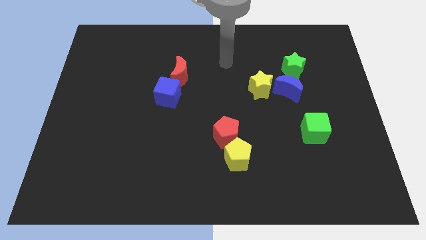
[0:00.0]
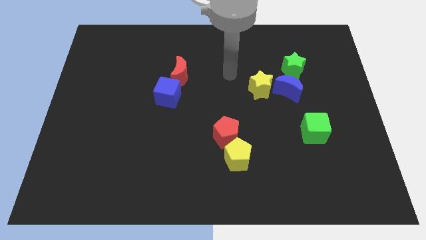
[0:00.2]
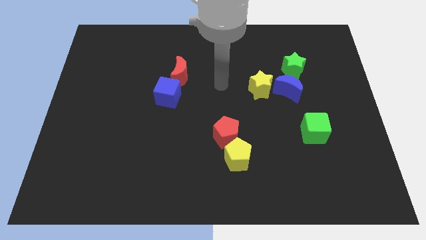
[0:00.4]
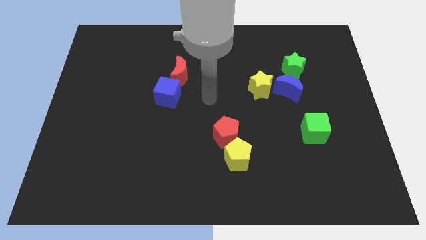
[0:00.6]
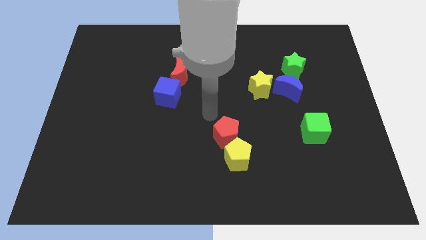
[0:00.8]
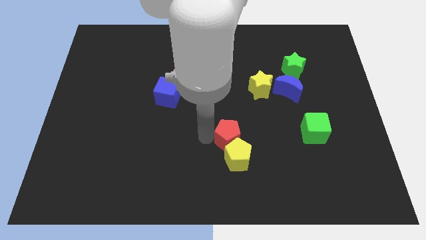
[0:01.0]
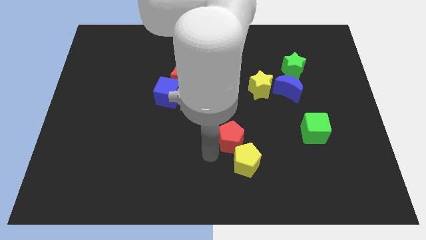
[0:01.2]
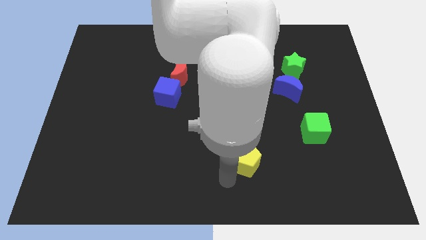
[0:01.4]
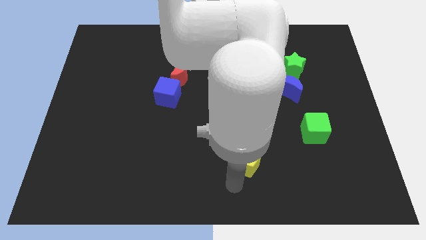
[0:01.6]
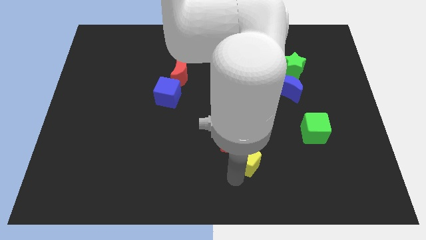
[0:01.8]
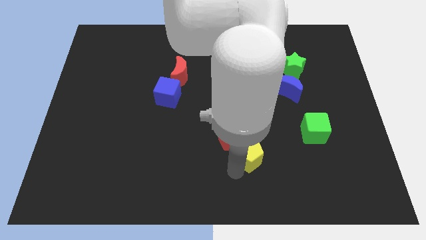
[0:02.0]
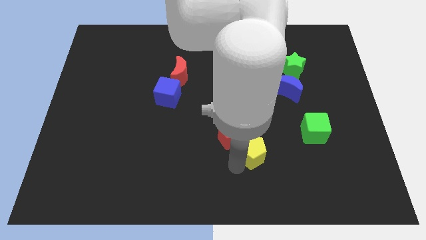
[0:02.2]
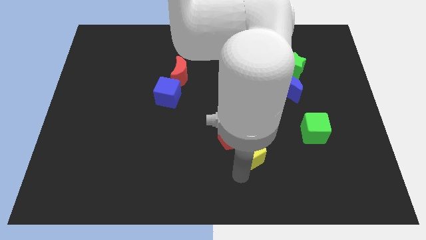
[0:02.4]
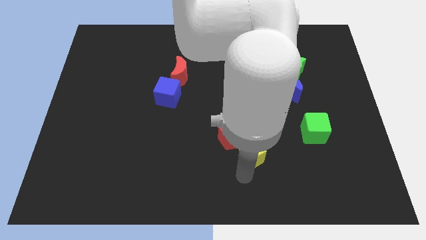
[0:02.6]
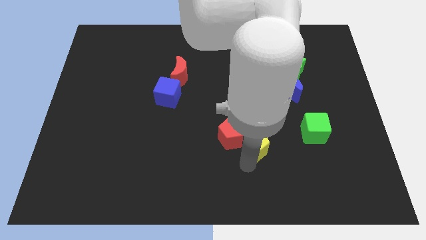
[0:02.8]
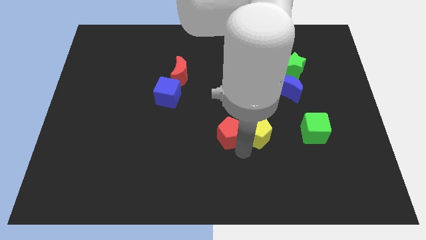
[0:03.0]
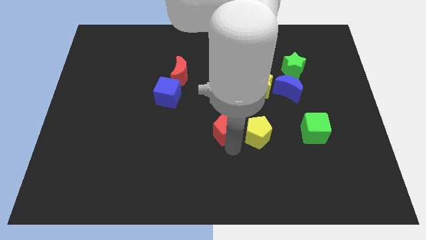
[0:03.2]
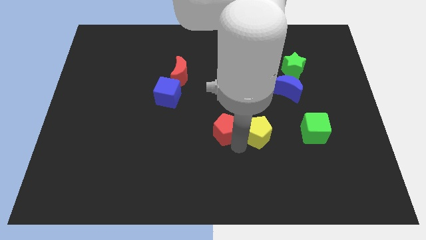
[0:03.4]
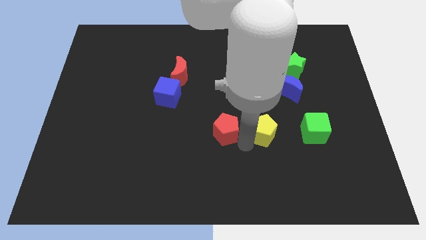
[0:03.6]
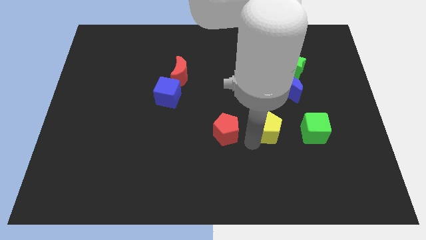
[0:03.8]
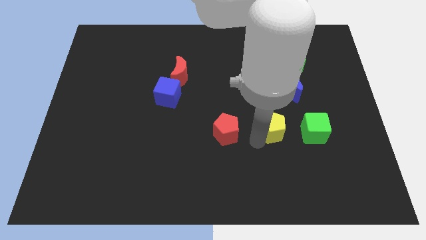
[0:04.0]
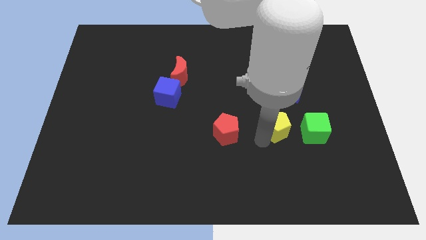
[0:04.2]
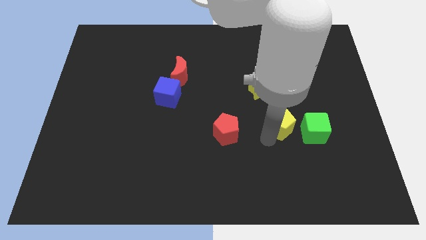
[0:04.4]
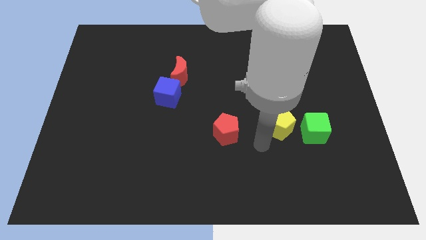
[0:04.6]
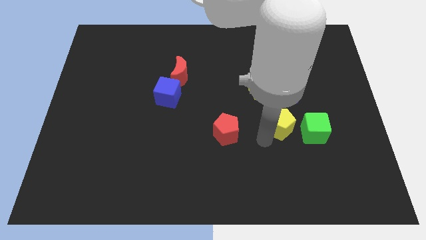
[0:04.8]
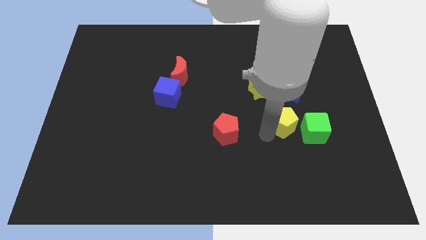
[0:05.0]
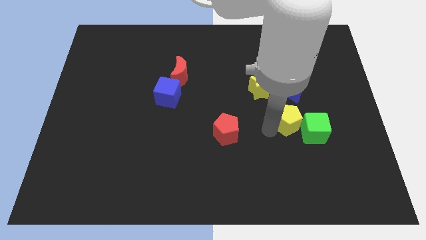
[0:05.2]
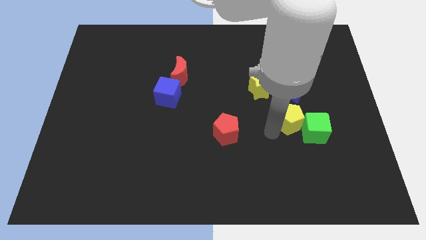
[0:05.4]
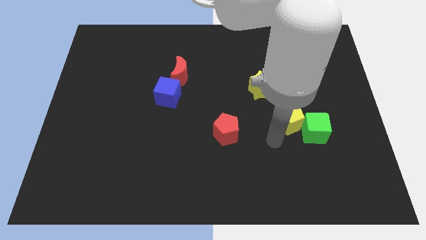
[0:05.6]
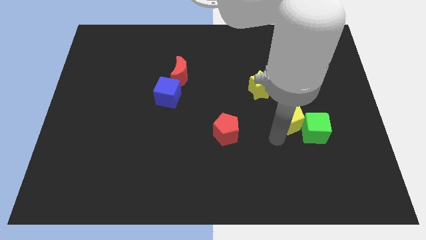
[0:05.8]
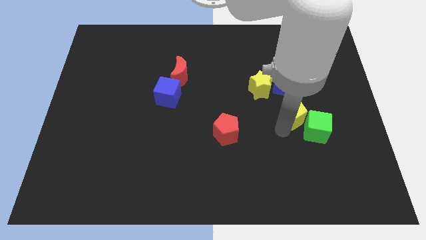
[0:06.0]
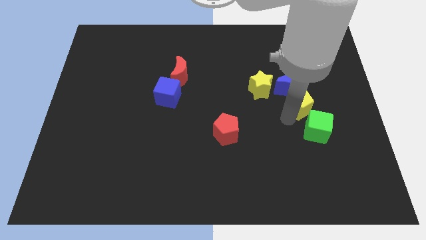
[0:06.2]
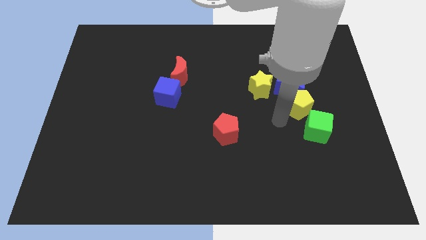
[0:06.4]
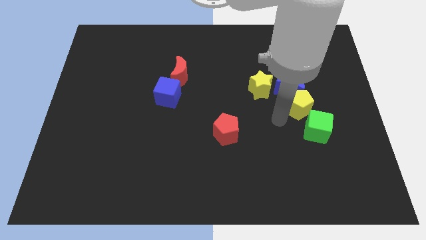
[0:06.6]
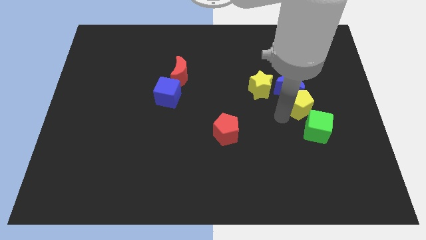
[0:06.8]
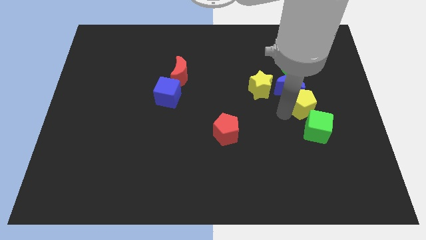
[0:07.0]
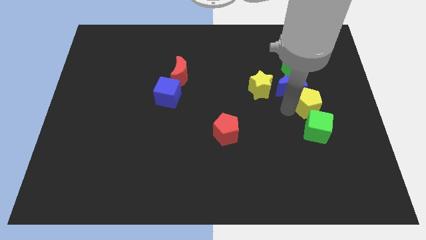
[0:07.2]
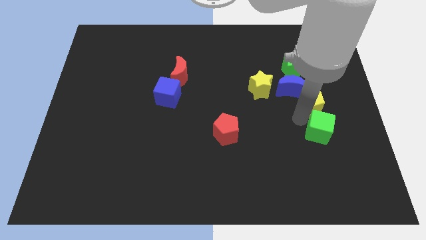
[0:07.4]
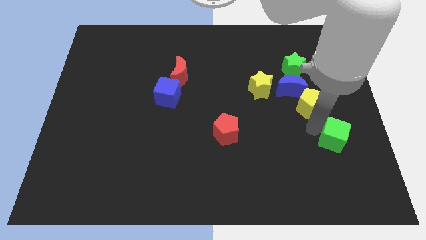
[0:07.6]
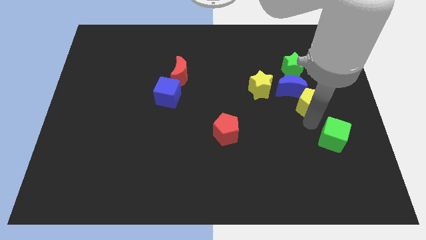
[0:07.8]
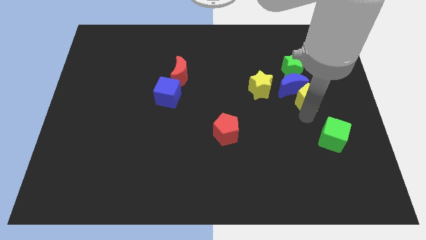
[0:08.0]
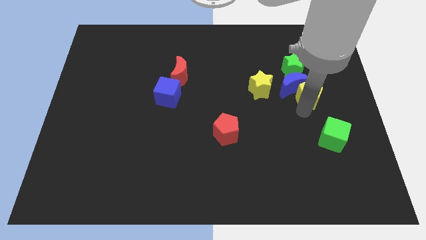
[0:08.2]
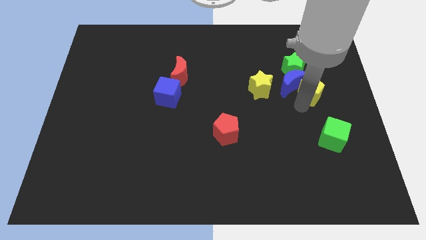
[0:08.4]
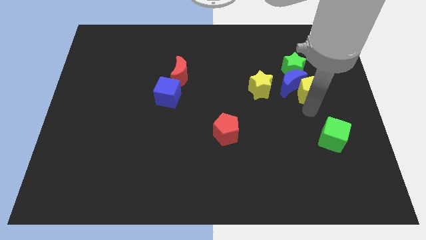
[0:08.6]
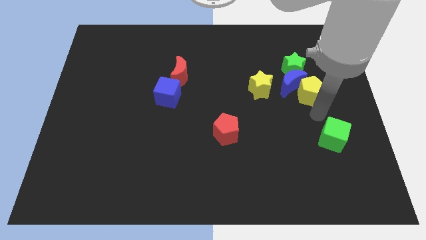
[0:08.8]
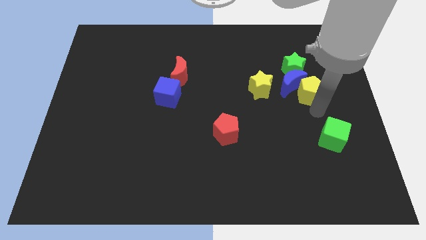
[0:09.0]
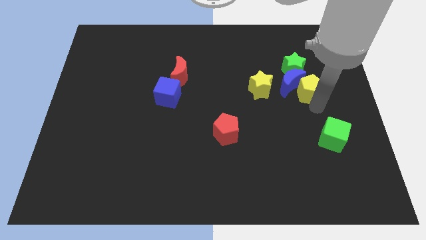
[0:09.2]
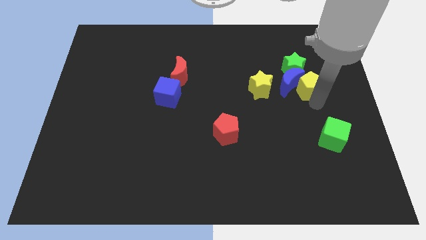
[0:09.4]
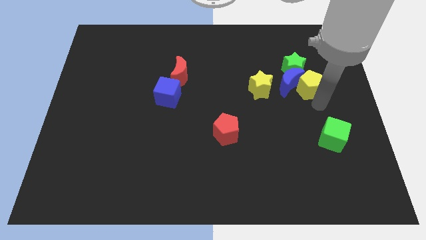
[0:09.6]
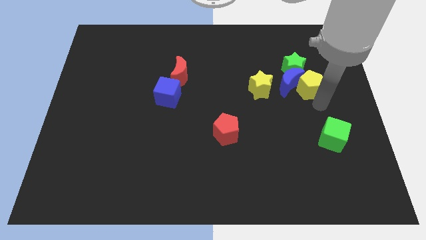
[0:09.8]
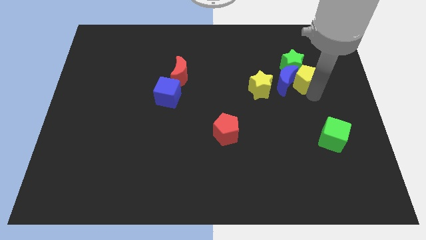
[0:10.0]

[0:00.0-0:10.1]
push the yellow pentagon towards the green star

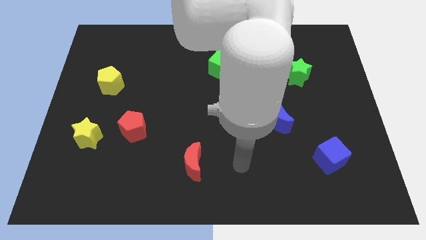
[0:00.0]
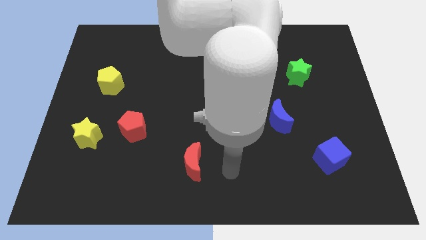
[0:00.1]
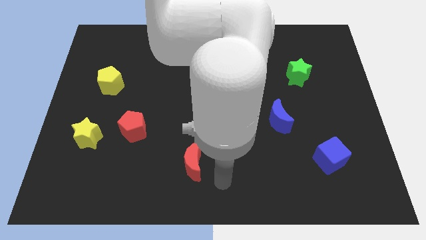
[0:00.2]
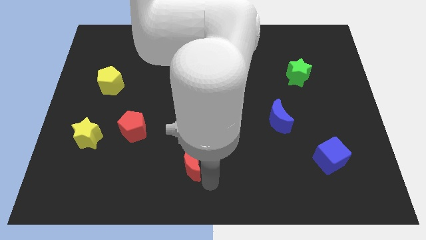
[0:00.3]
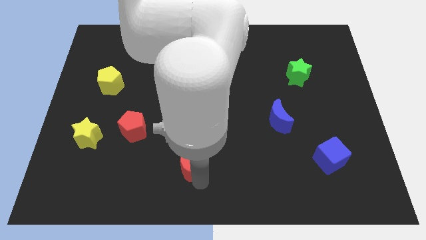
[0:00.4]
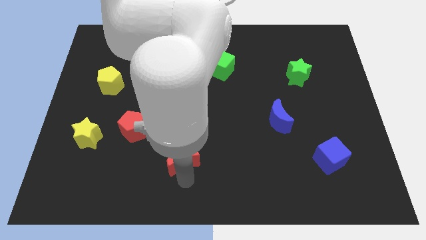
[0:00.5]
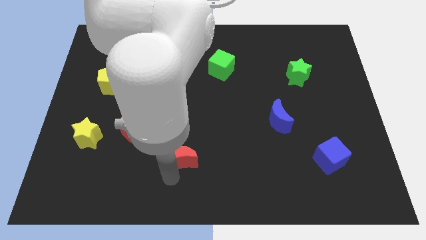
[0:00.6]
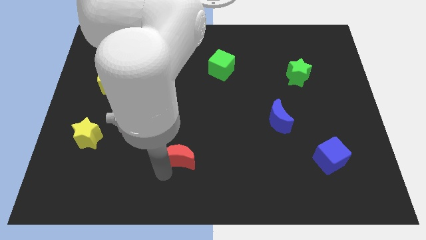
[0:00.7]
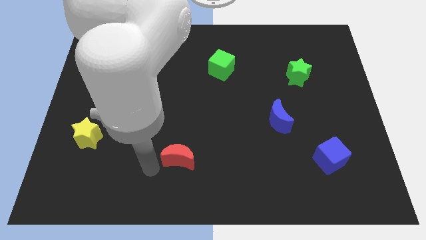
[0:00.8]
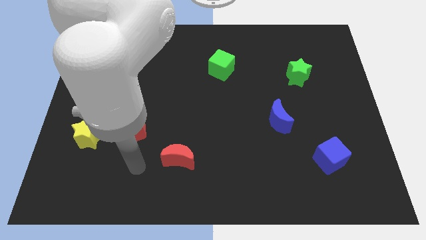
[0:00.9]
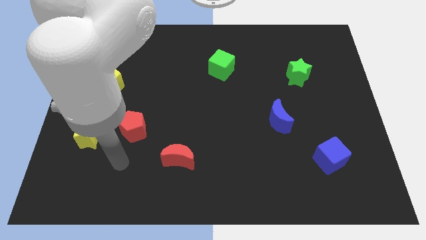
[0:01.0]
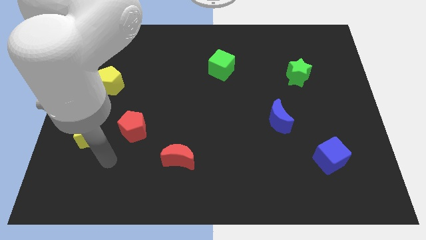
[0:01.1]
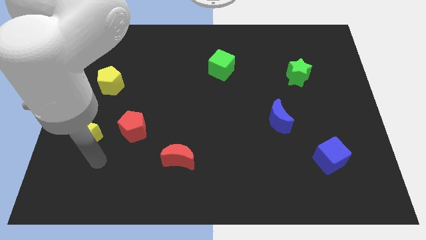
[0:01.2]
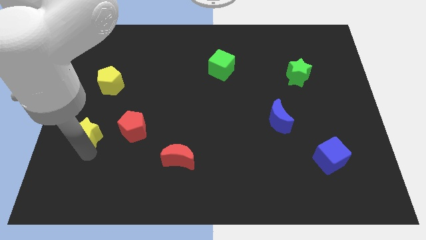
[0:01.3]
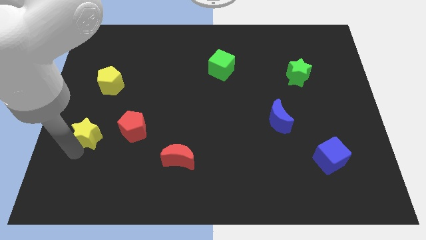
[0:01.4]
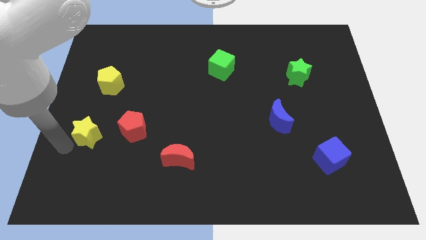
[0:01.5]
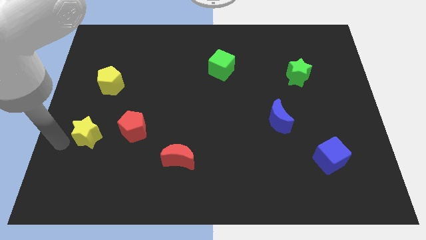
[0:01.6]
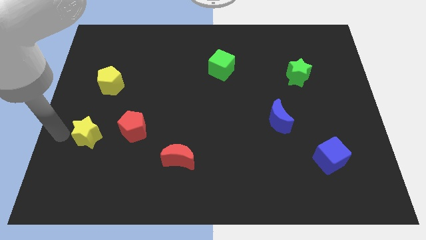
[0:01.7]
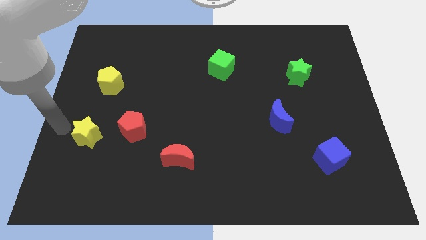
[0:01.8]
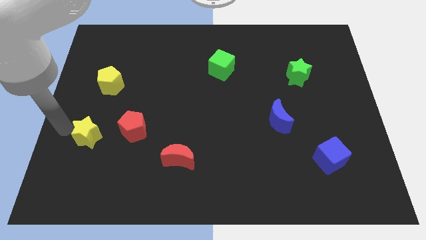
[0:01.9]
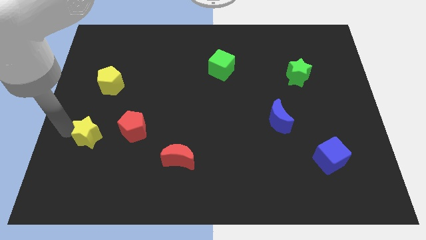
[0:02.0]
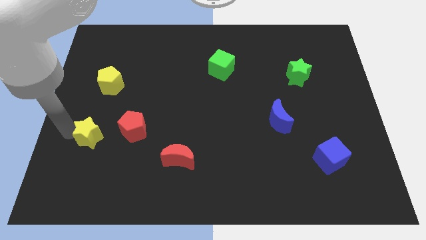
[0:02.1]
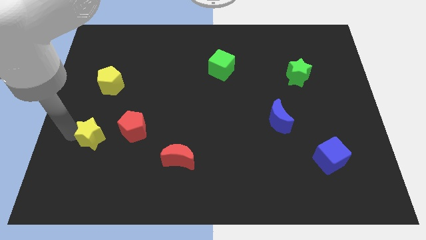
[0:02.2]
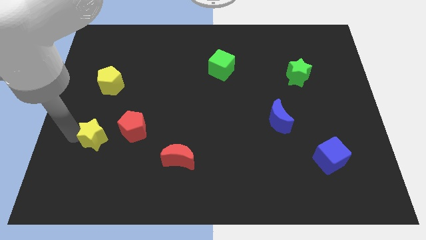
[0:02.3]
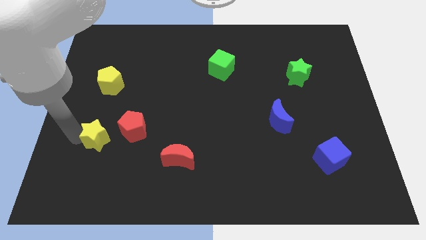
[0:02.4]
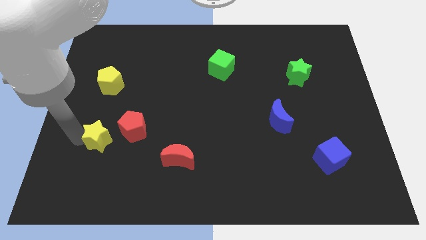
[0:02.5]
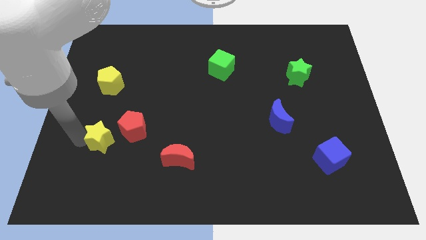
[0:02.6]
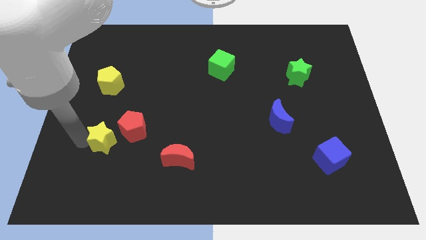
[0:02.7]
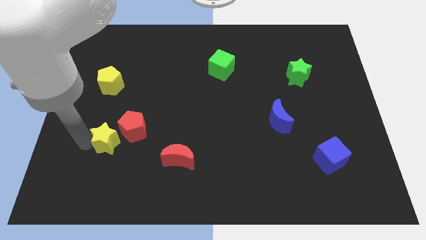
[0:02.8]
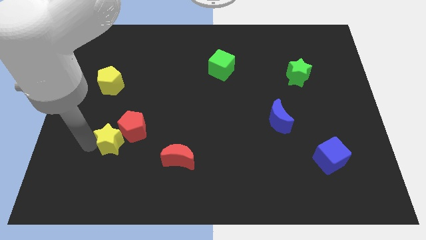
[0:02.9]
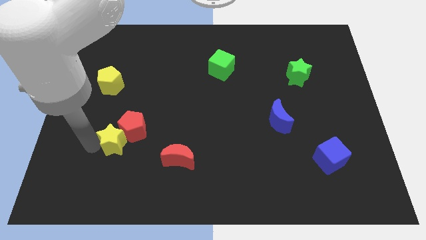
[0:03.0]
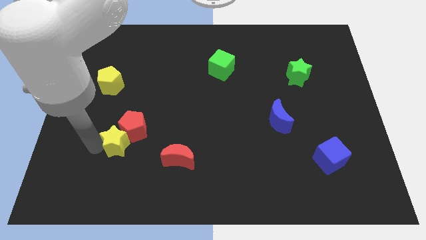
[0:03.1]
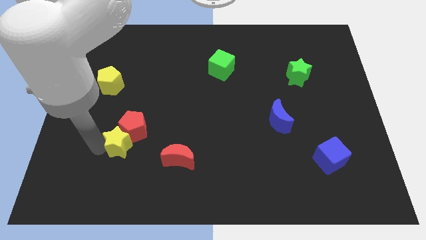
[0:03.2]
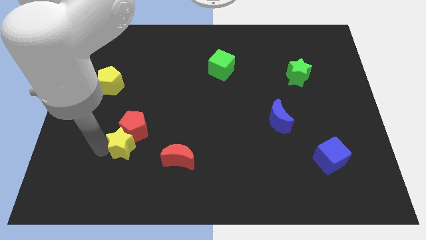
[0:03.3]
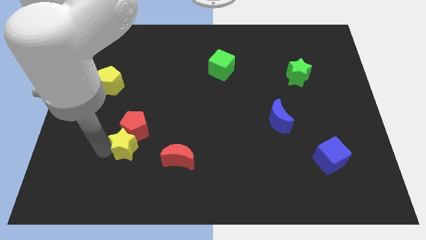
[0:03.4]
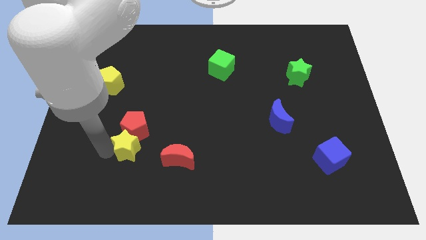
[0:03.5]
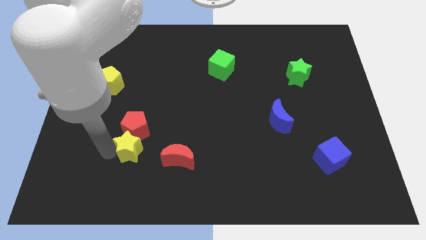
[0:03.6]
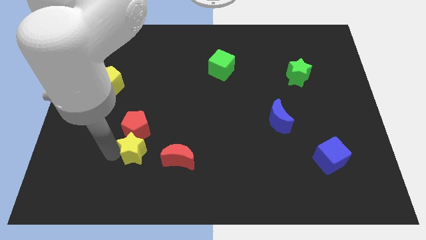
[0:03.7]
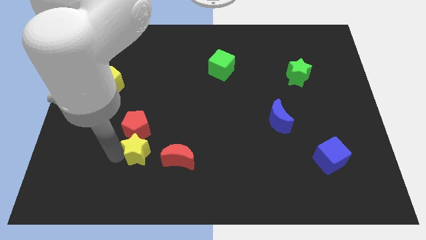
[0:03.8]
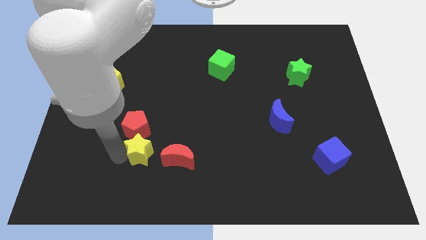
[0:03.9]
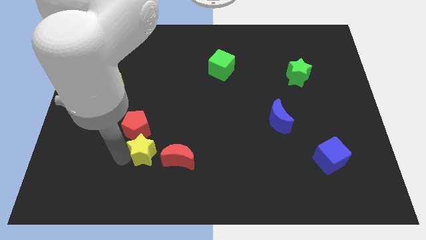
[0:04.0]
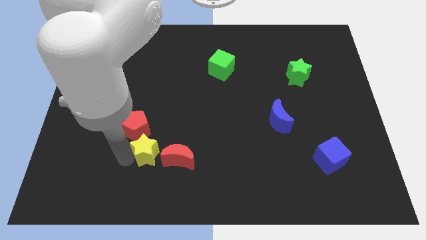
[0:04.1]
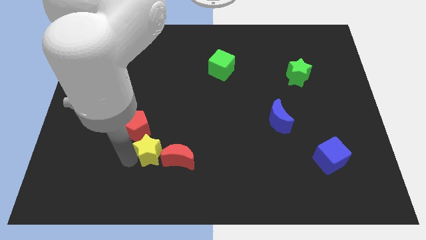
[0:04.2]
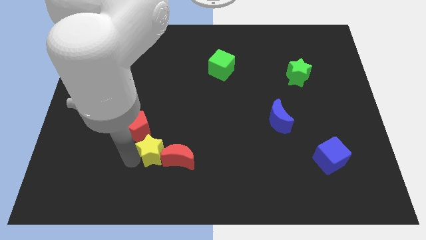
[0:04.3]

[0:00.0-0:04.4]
push the yellow star close to the red moon
